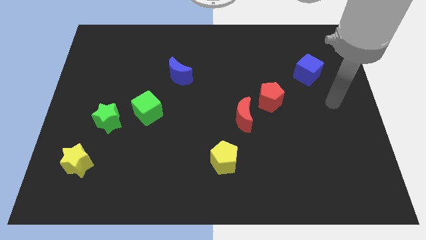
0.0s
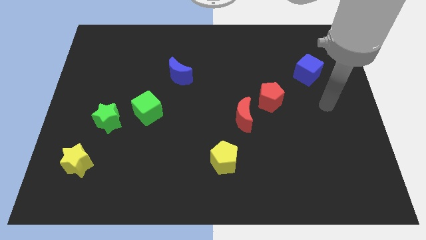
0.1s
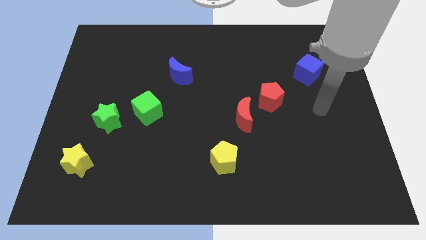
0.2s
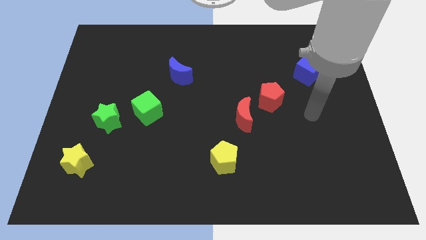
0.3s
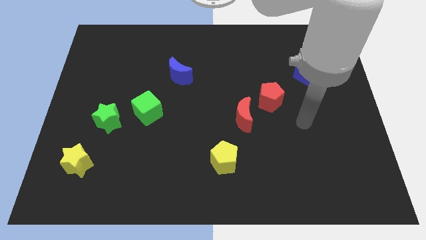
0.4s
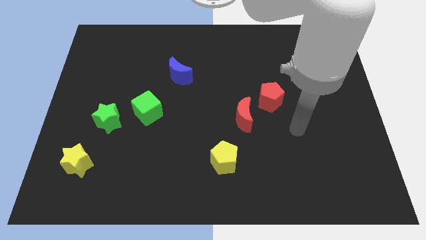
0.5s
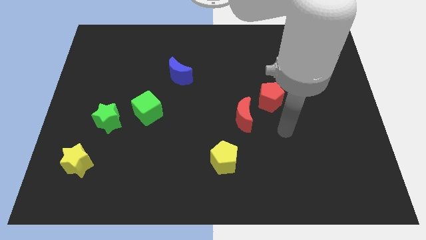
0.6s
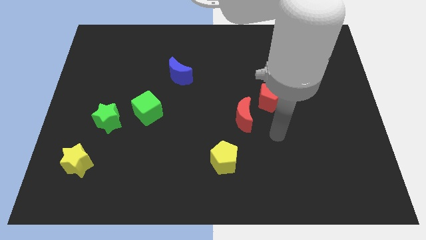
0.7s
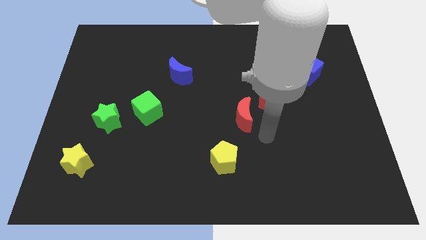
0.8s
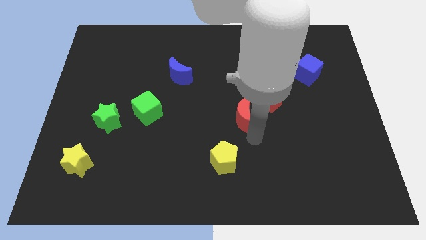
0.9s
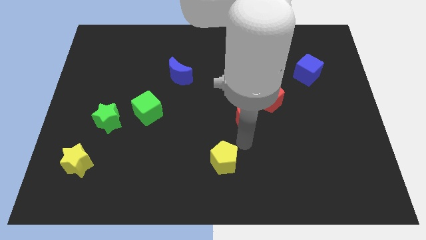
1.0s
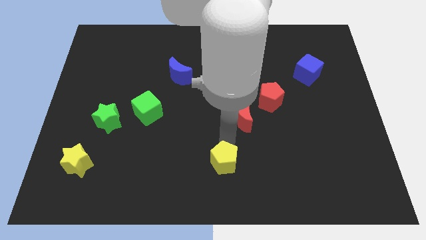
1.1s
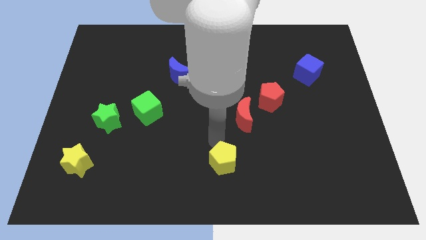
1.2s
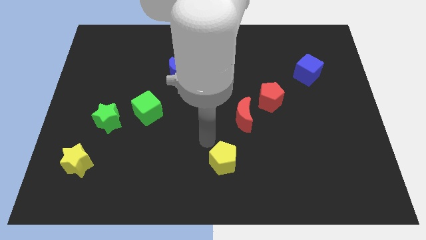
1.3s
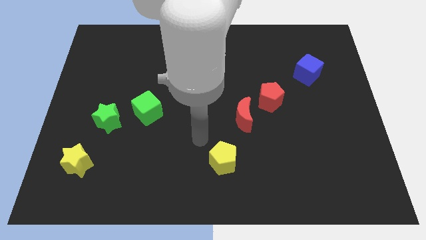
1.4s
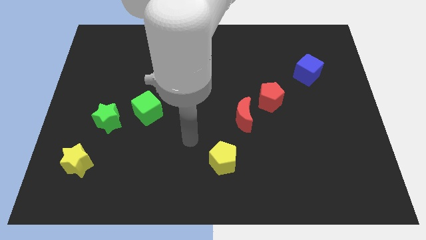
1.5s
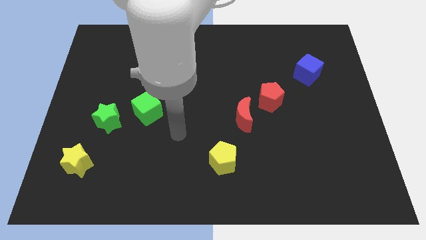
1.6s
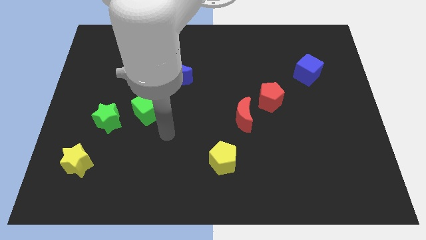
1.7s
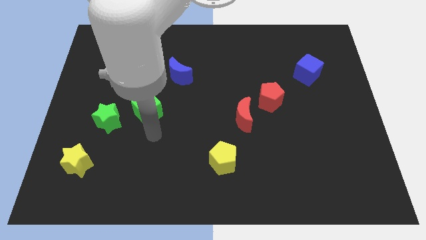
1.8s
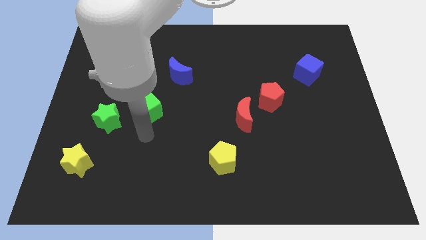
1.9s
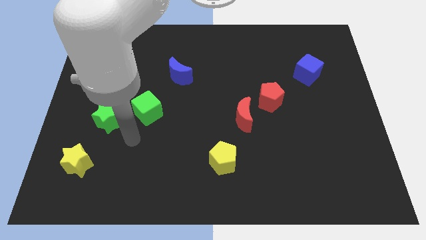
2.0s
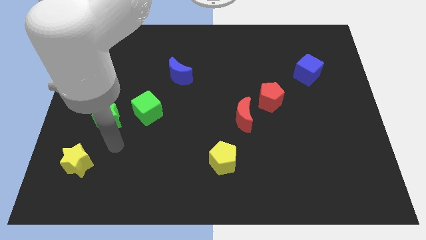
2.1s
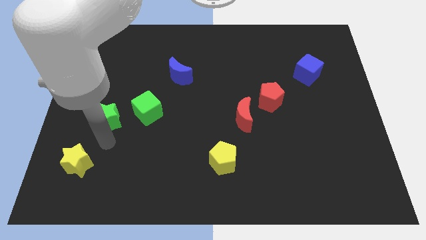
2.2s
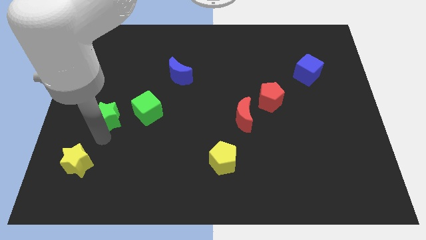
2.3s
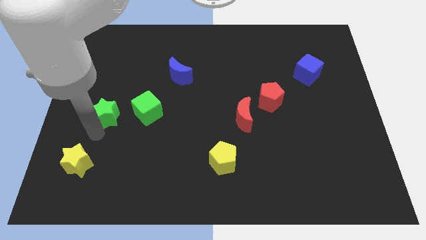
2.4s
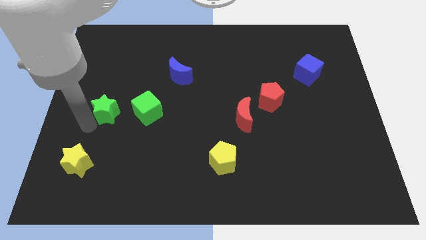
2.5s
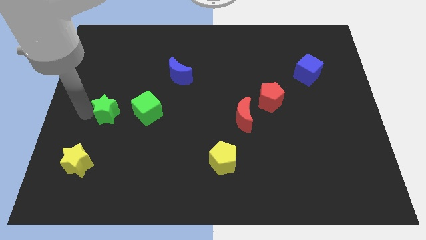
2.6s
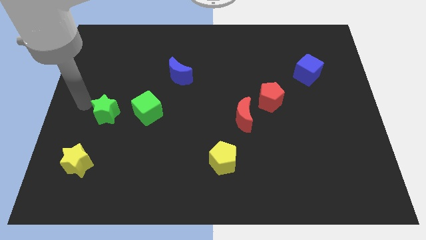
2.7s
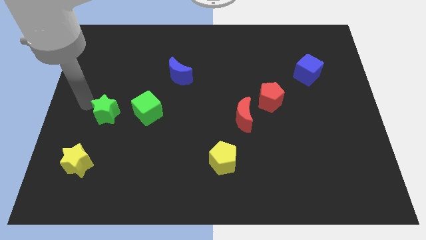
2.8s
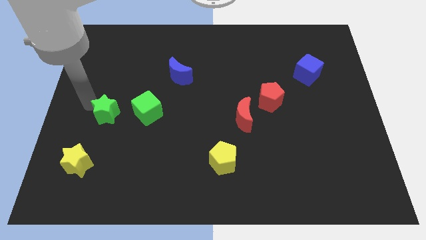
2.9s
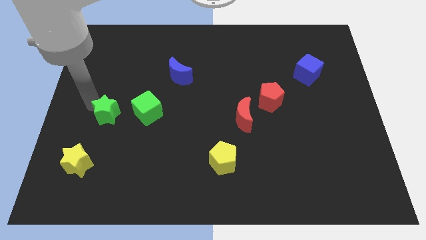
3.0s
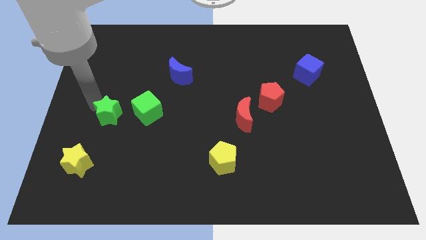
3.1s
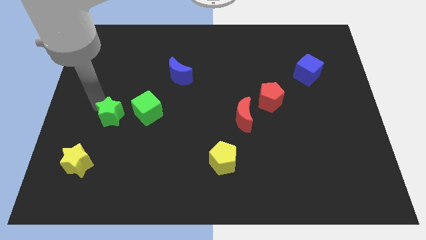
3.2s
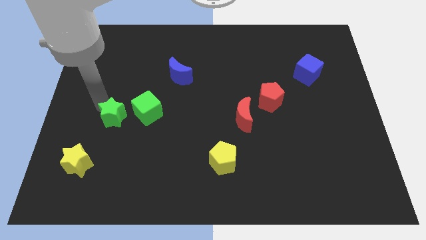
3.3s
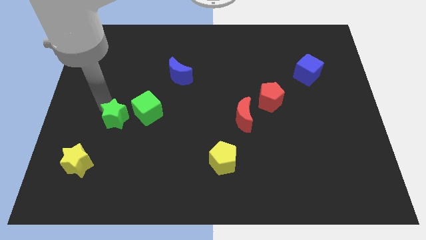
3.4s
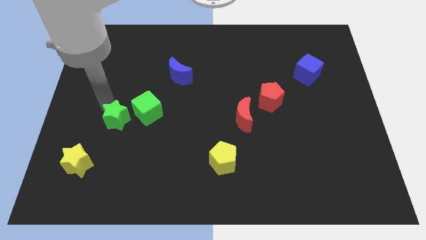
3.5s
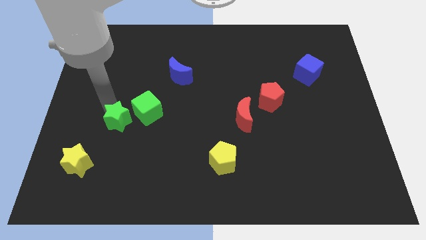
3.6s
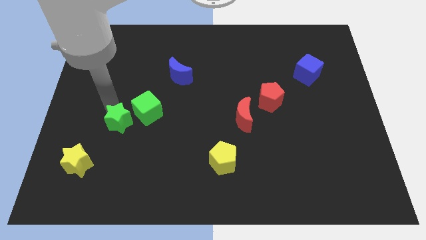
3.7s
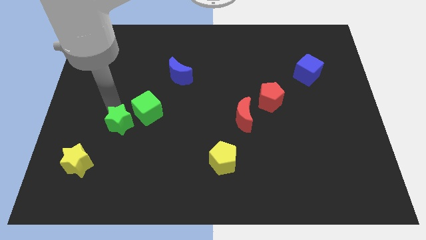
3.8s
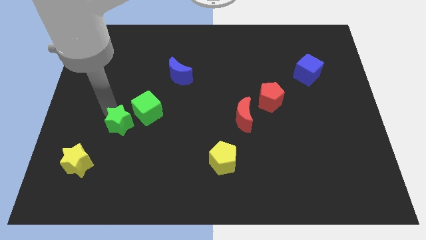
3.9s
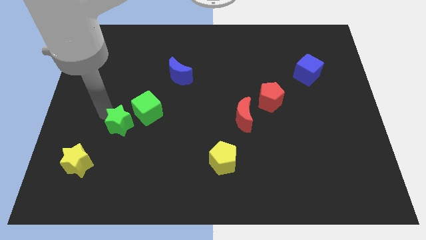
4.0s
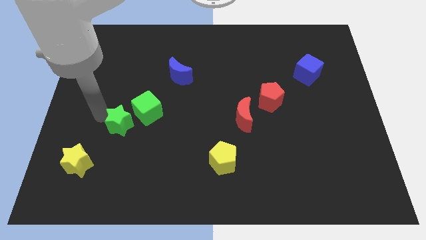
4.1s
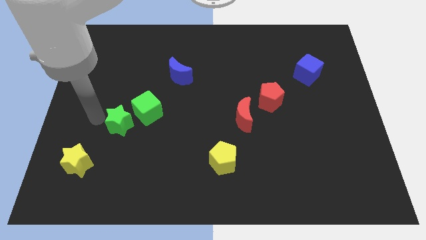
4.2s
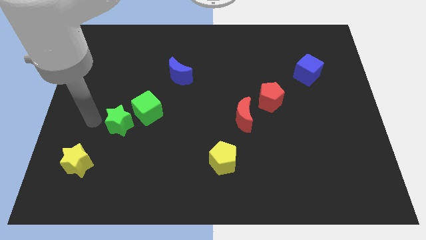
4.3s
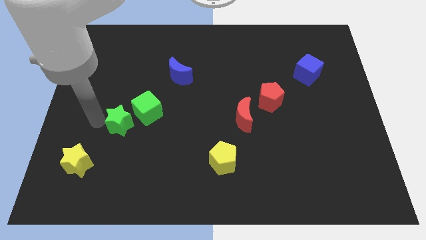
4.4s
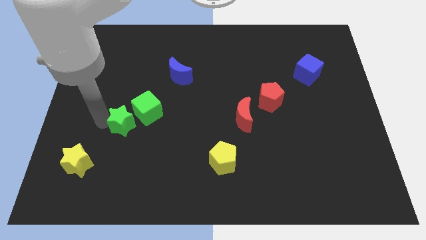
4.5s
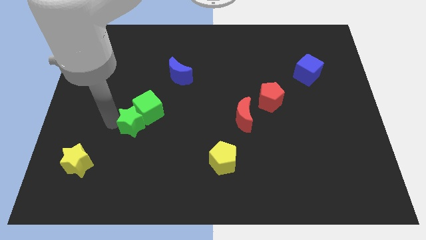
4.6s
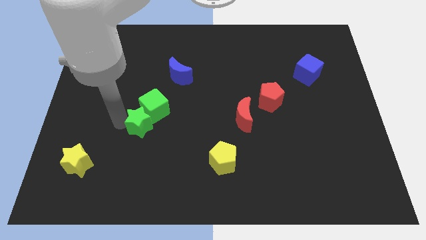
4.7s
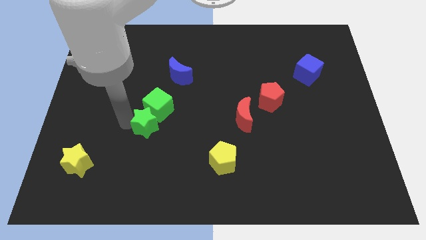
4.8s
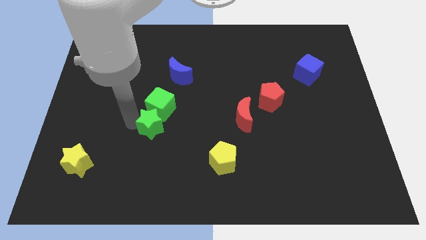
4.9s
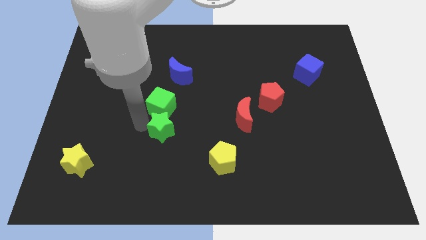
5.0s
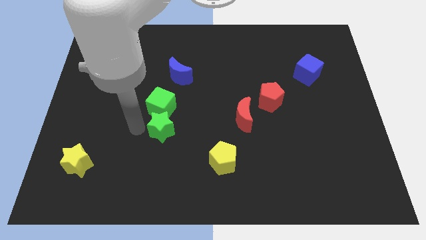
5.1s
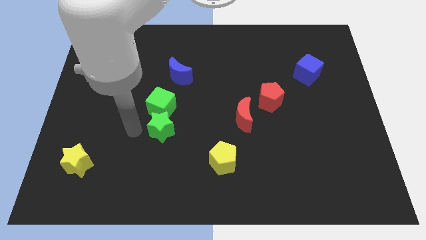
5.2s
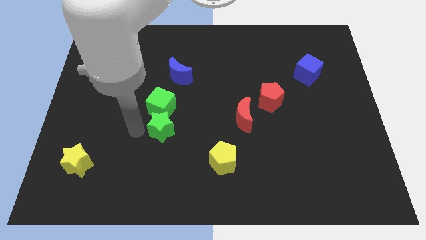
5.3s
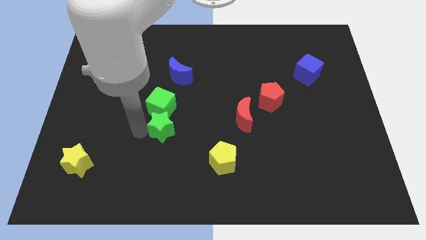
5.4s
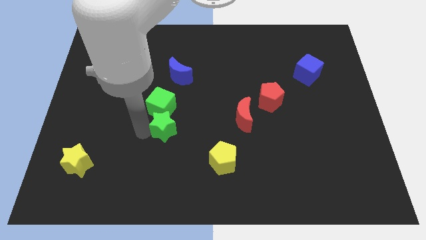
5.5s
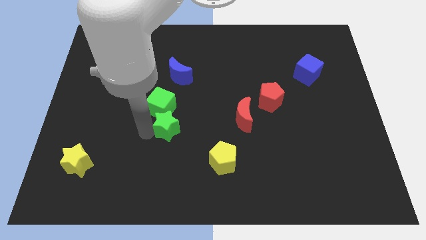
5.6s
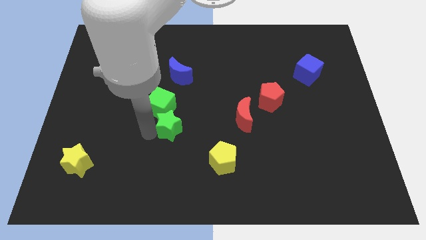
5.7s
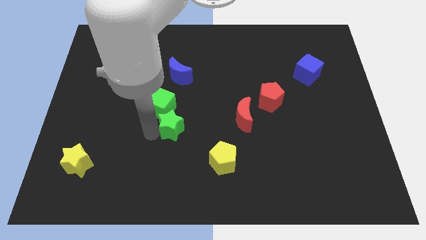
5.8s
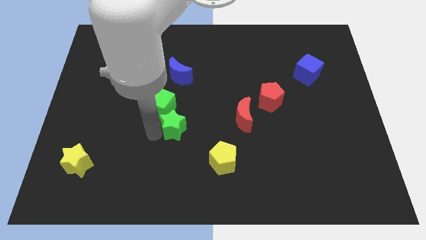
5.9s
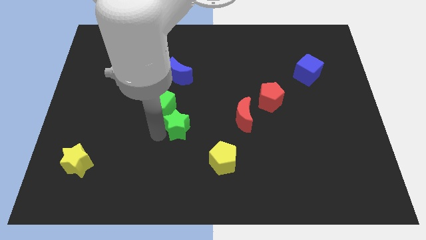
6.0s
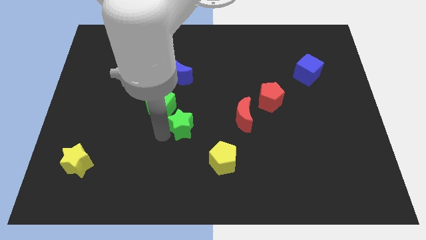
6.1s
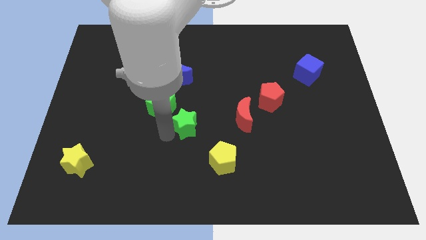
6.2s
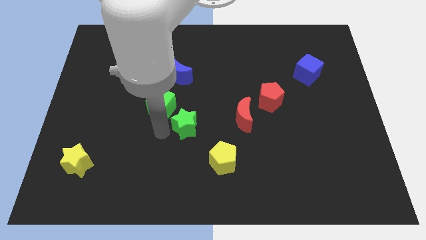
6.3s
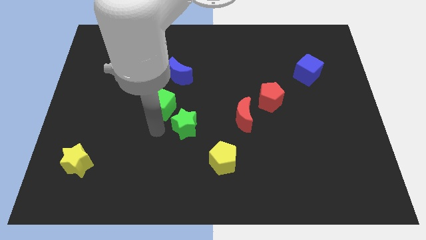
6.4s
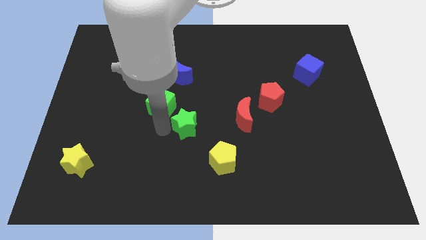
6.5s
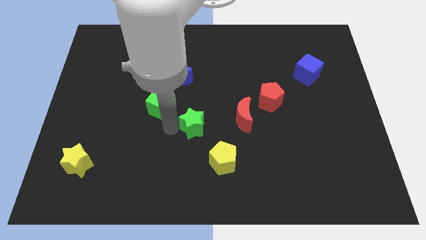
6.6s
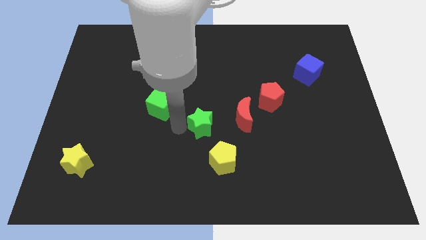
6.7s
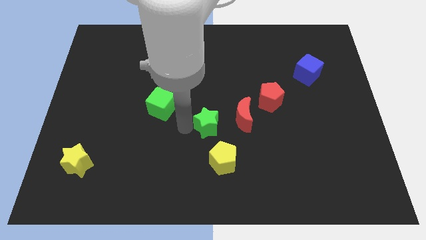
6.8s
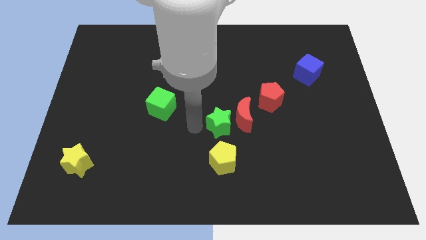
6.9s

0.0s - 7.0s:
move the green star towards the red moon
